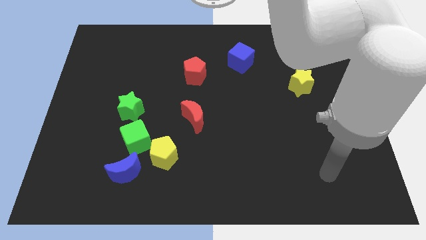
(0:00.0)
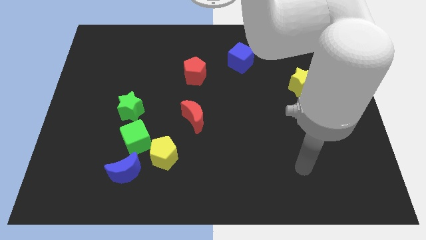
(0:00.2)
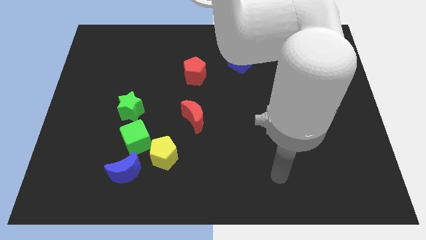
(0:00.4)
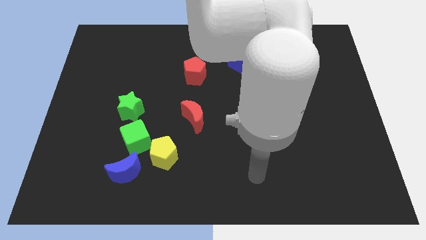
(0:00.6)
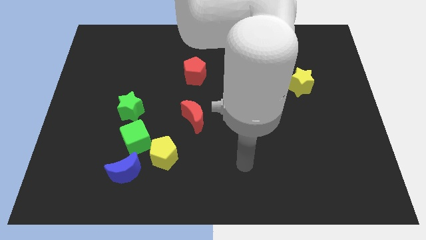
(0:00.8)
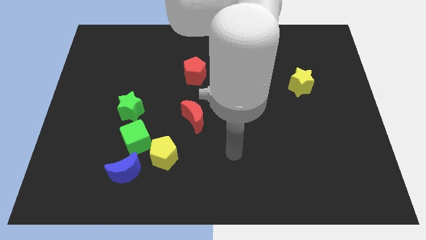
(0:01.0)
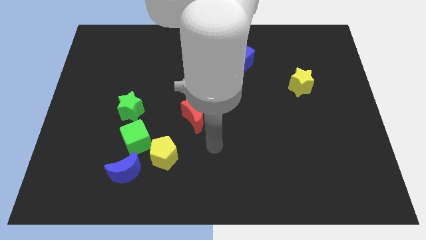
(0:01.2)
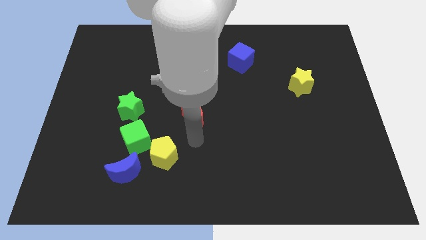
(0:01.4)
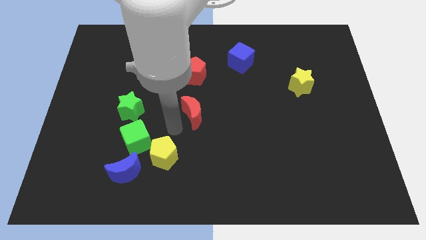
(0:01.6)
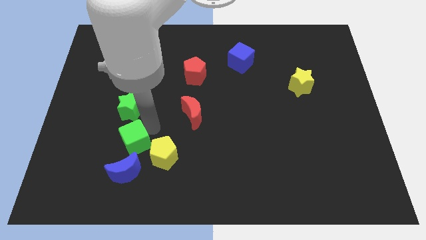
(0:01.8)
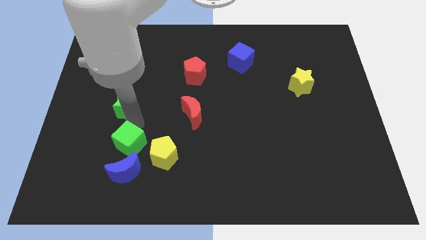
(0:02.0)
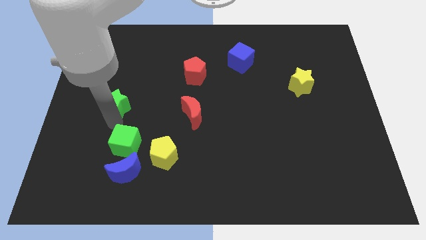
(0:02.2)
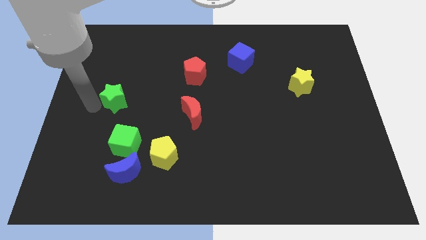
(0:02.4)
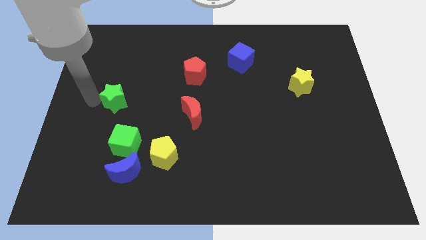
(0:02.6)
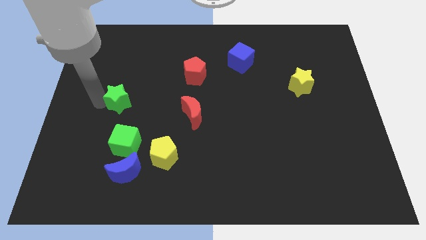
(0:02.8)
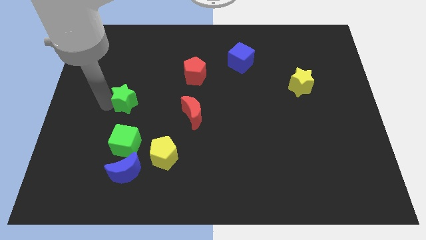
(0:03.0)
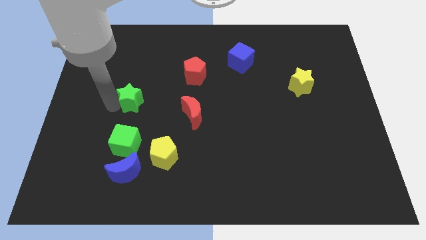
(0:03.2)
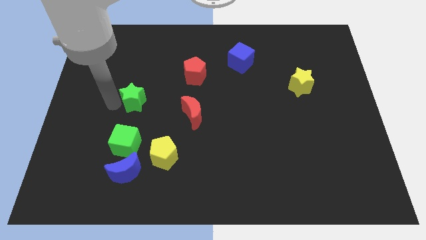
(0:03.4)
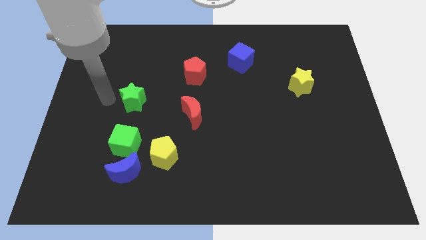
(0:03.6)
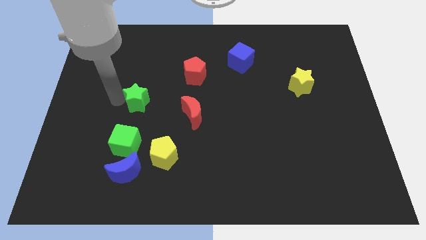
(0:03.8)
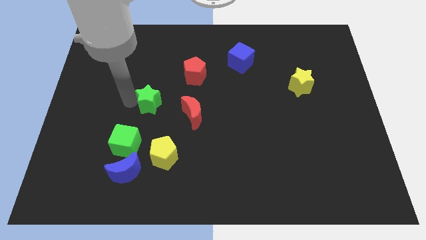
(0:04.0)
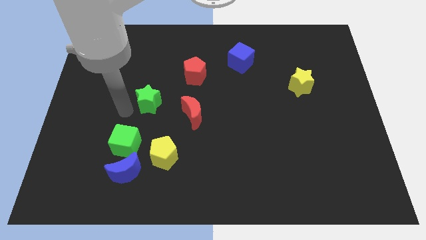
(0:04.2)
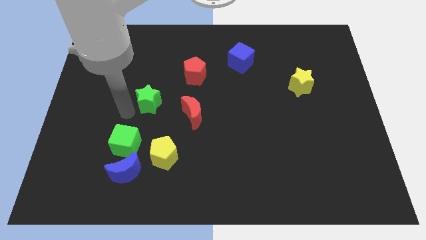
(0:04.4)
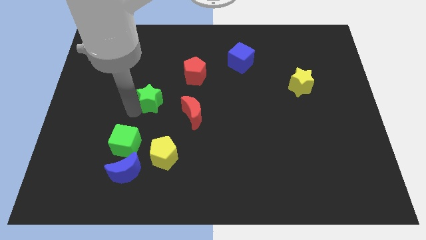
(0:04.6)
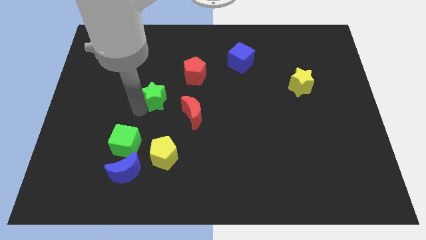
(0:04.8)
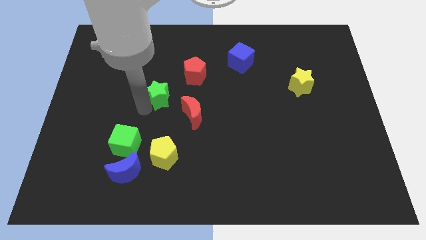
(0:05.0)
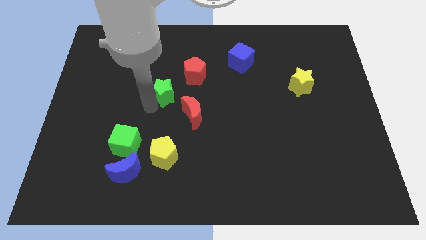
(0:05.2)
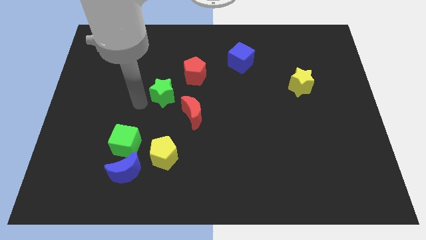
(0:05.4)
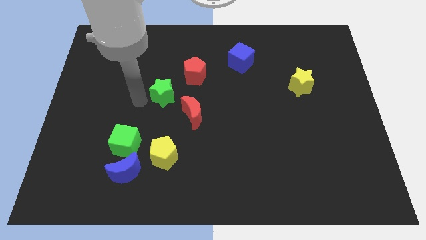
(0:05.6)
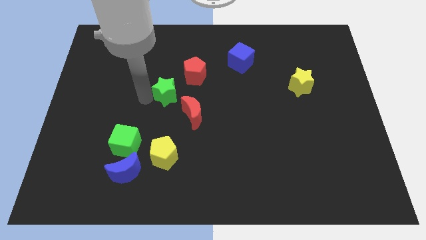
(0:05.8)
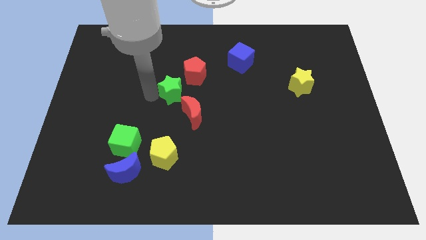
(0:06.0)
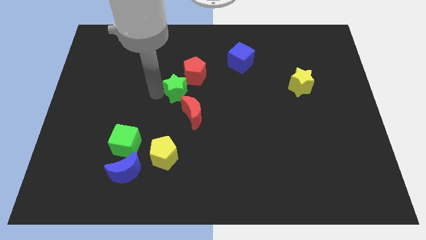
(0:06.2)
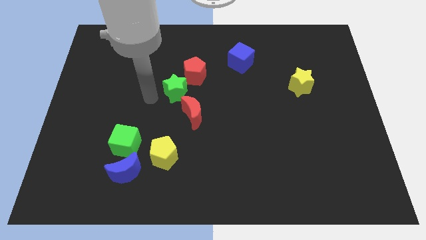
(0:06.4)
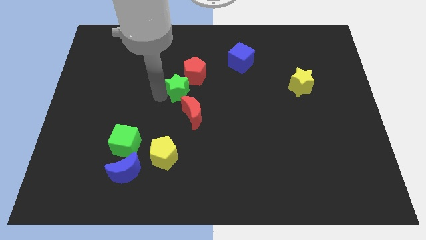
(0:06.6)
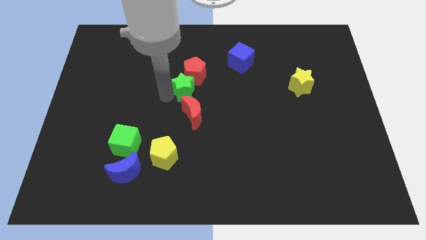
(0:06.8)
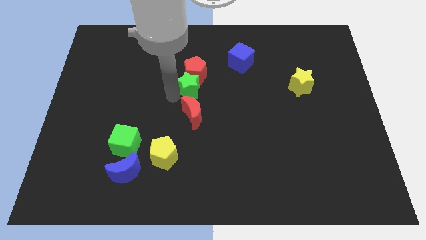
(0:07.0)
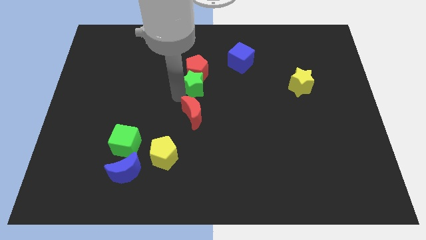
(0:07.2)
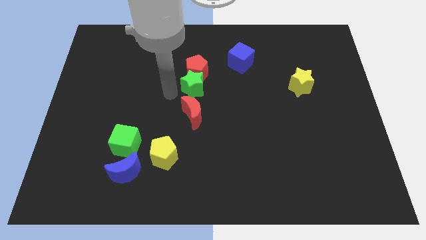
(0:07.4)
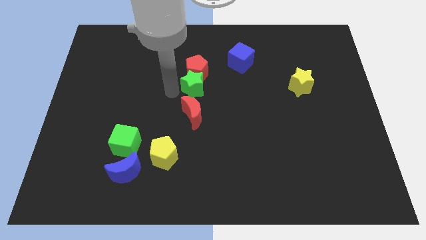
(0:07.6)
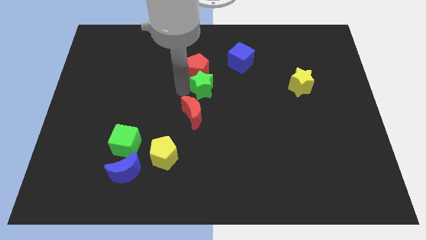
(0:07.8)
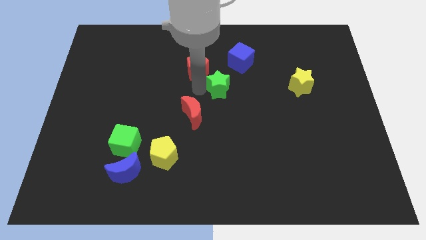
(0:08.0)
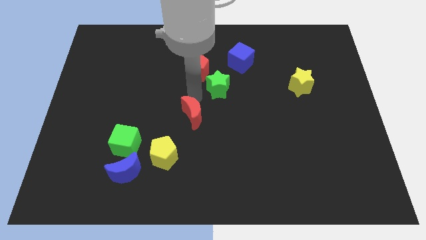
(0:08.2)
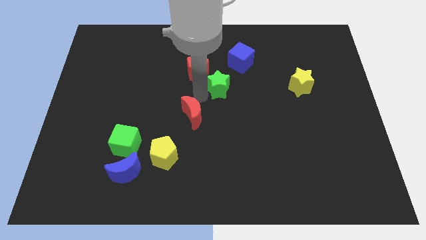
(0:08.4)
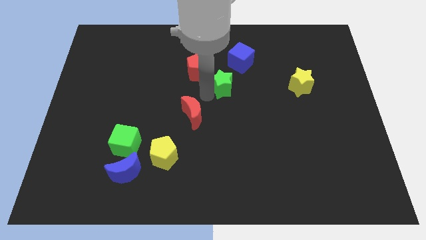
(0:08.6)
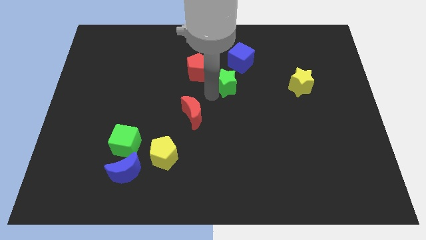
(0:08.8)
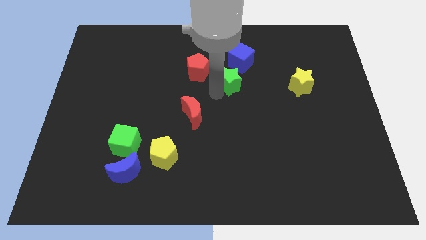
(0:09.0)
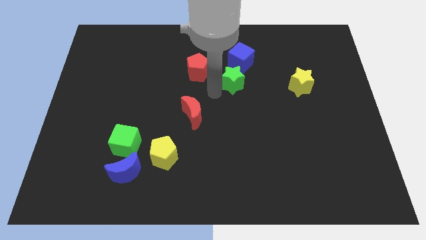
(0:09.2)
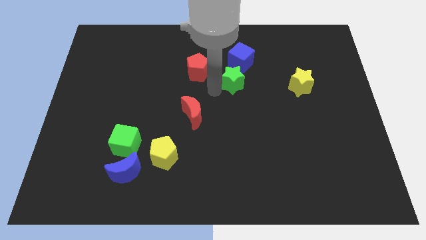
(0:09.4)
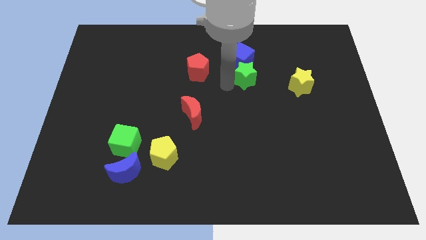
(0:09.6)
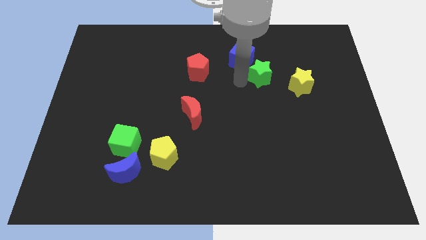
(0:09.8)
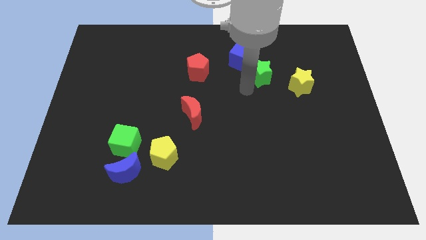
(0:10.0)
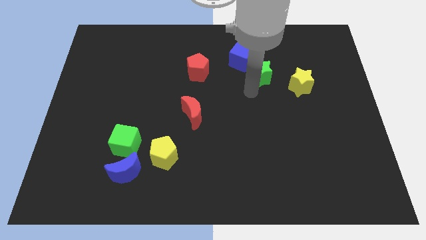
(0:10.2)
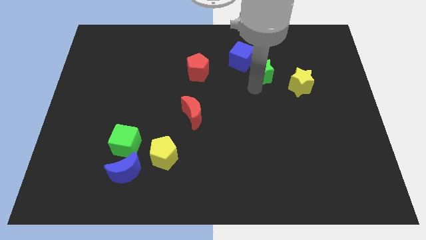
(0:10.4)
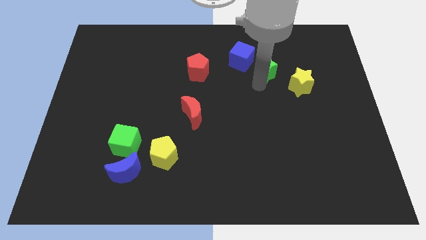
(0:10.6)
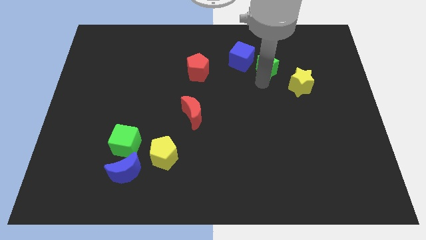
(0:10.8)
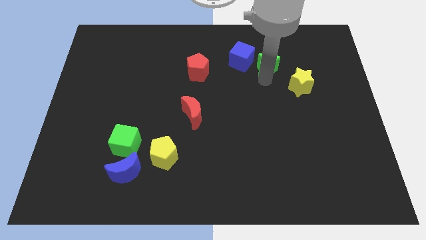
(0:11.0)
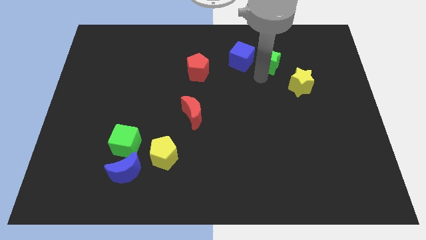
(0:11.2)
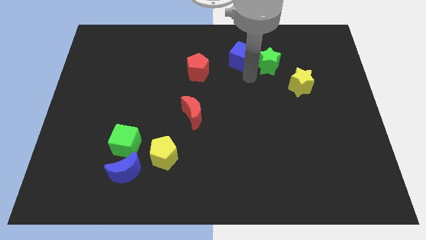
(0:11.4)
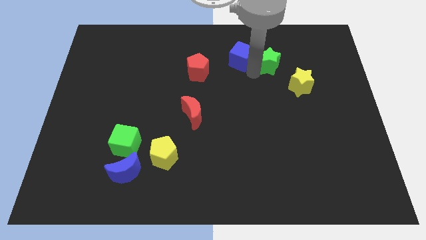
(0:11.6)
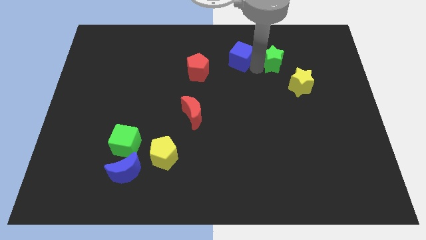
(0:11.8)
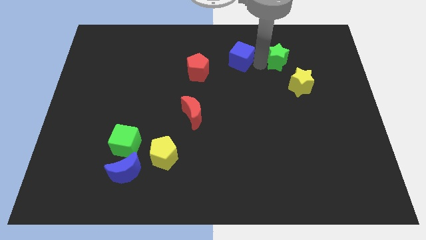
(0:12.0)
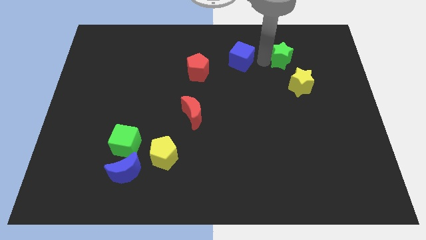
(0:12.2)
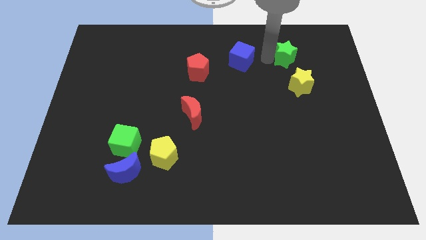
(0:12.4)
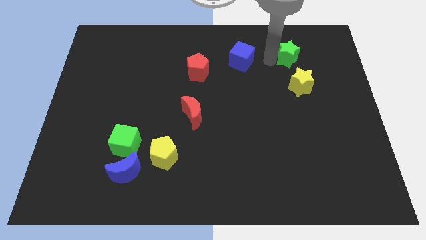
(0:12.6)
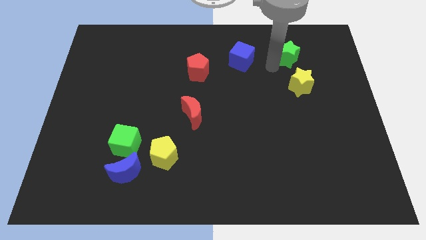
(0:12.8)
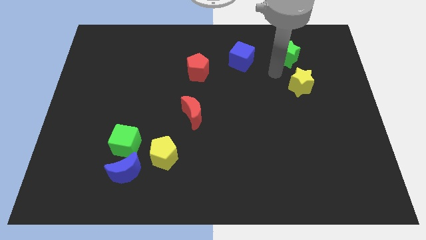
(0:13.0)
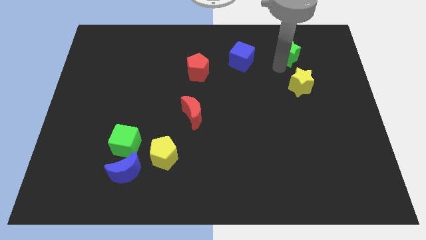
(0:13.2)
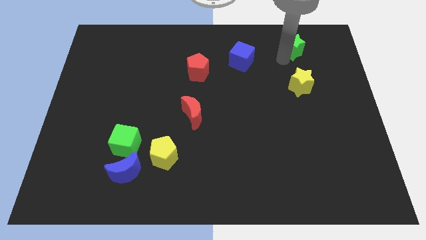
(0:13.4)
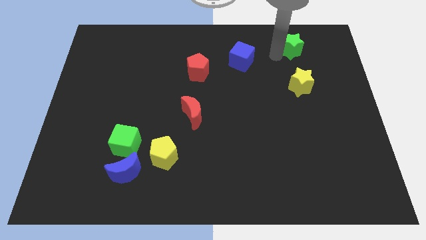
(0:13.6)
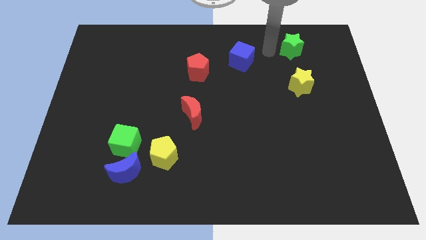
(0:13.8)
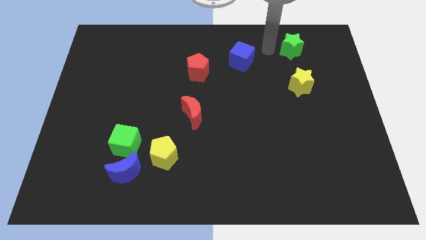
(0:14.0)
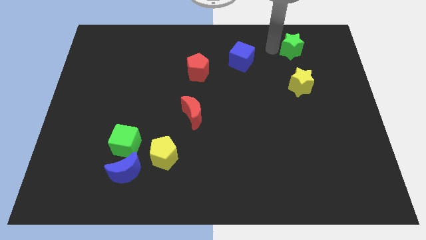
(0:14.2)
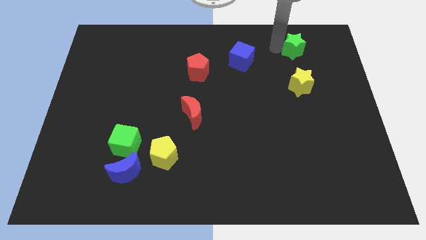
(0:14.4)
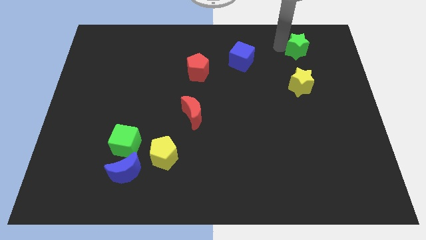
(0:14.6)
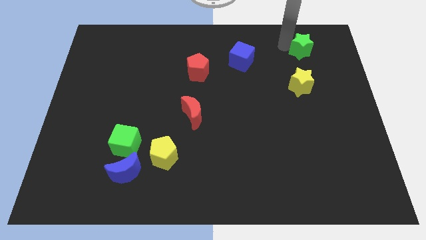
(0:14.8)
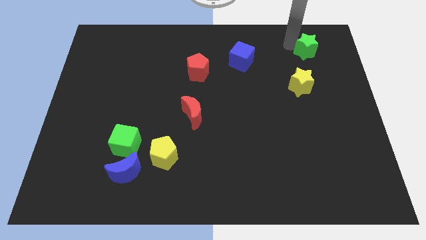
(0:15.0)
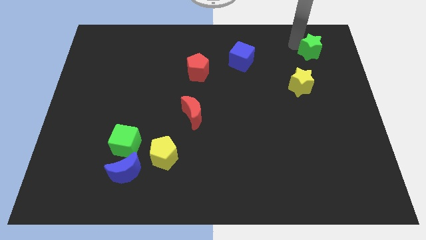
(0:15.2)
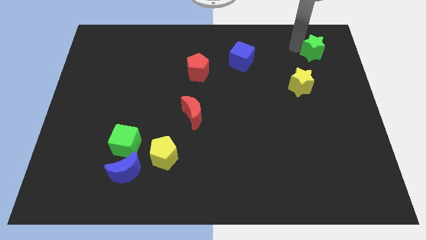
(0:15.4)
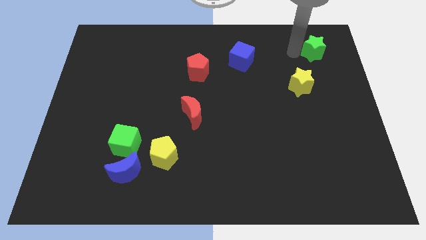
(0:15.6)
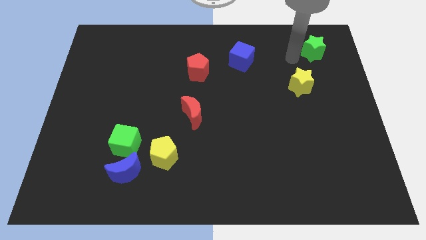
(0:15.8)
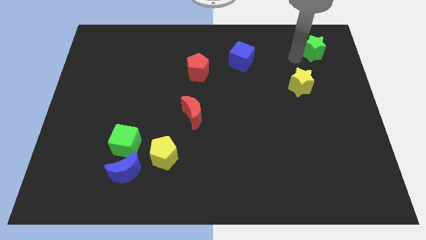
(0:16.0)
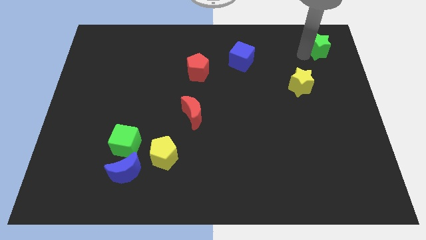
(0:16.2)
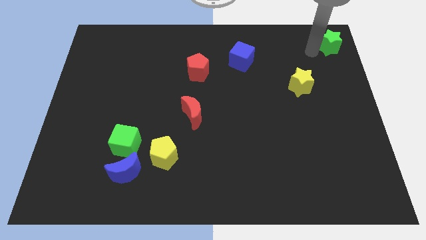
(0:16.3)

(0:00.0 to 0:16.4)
slide the green star to the top right
